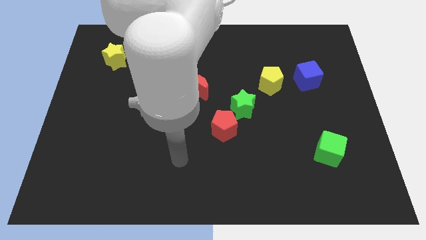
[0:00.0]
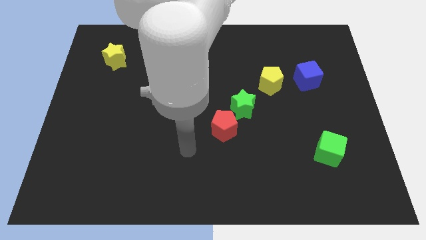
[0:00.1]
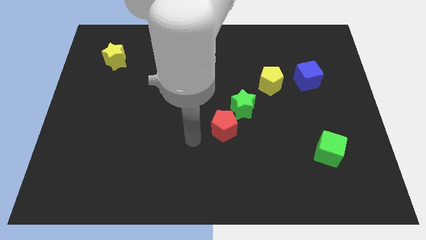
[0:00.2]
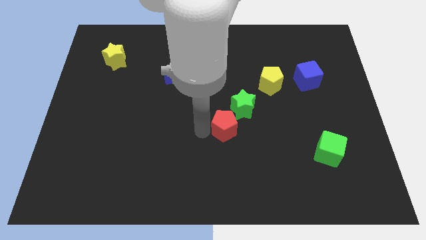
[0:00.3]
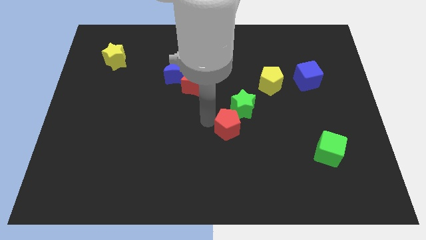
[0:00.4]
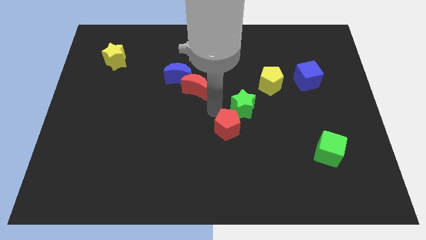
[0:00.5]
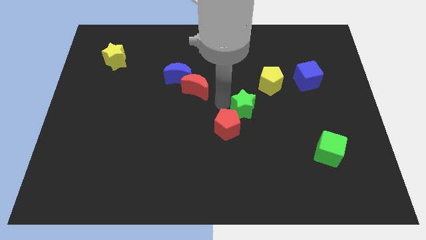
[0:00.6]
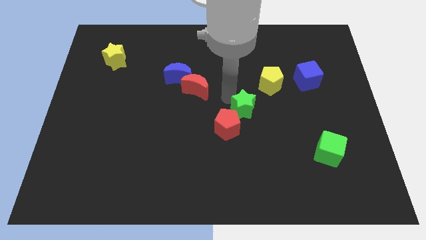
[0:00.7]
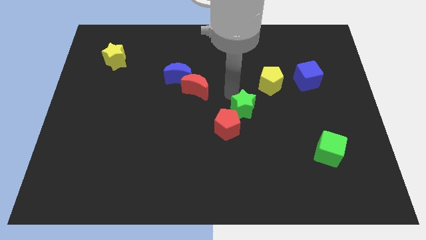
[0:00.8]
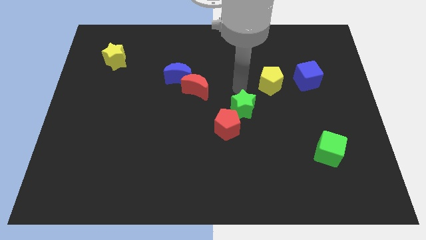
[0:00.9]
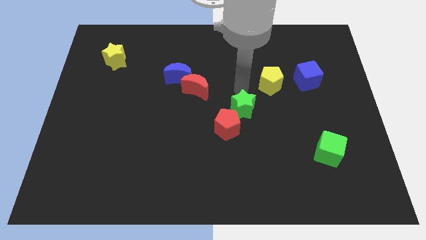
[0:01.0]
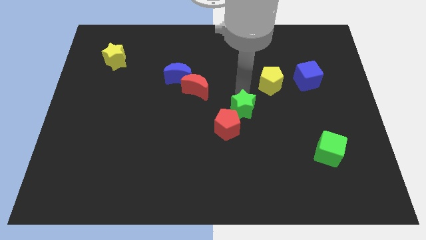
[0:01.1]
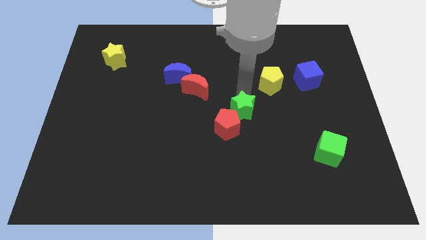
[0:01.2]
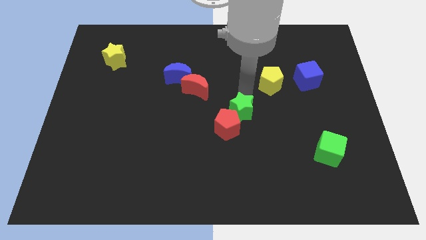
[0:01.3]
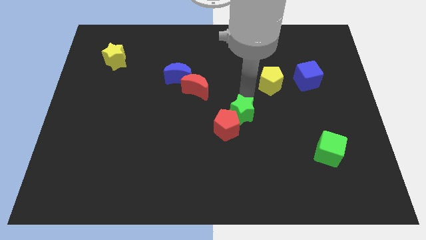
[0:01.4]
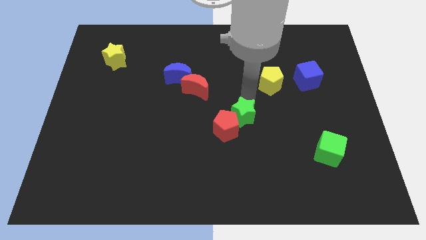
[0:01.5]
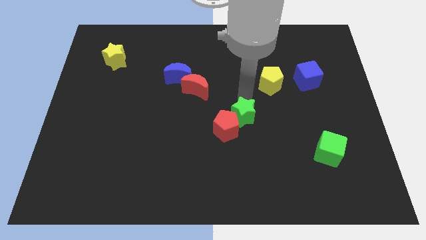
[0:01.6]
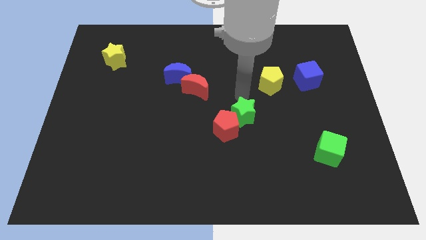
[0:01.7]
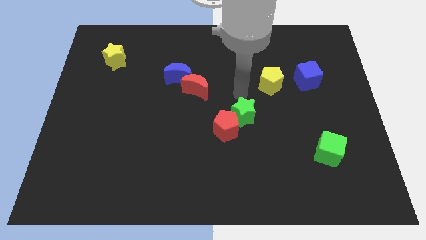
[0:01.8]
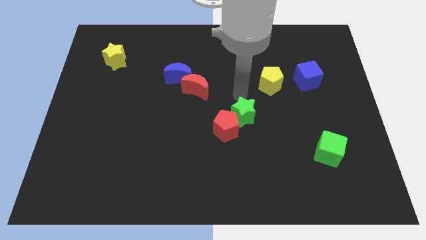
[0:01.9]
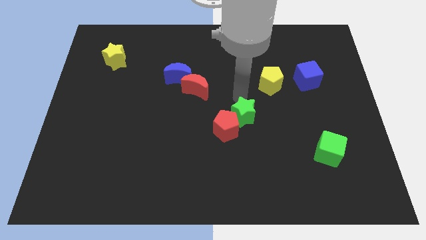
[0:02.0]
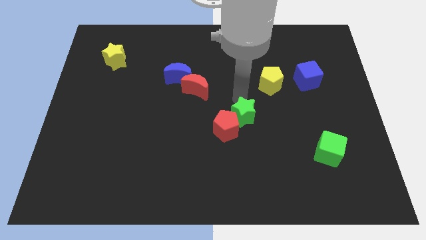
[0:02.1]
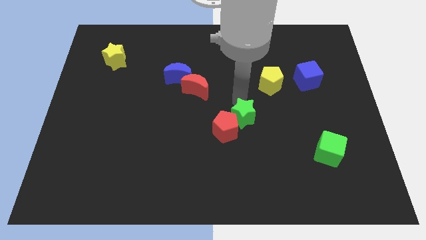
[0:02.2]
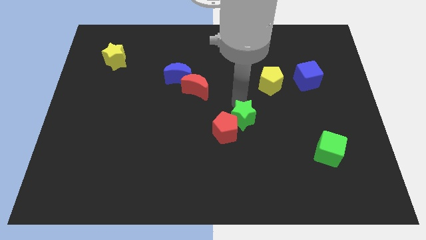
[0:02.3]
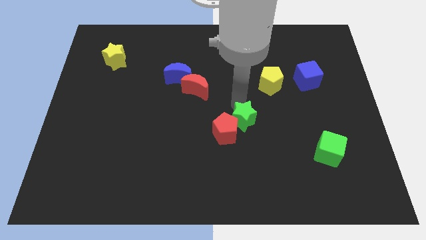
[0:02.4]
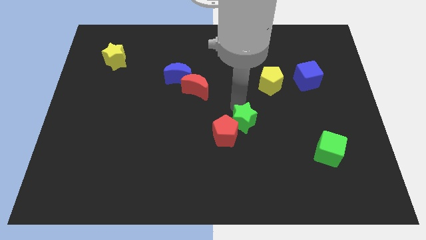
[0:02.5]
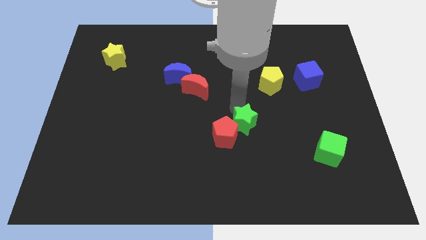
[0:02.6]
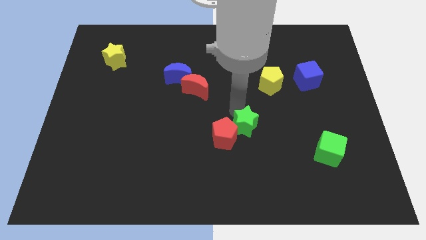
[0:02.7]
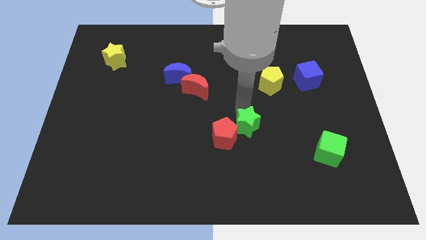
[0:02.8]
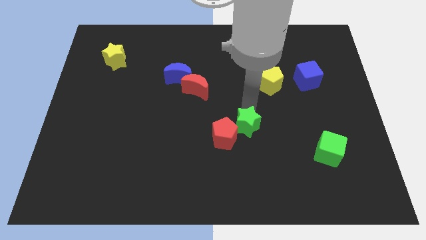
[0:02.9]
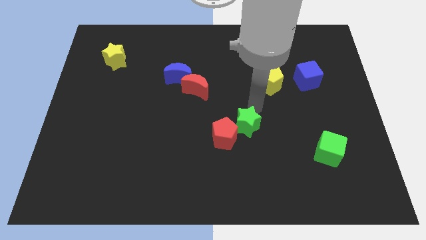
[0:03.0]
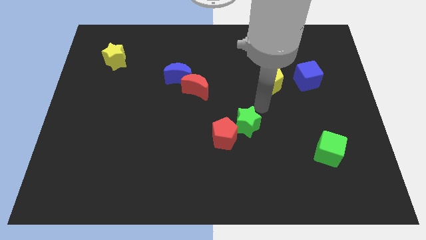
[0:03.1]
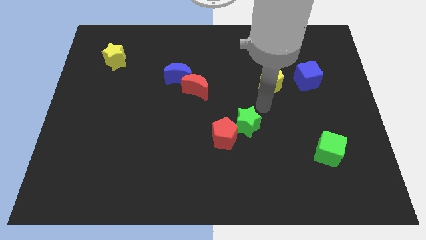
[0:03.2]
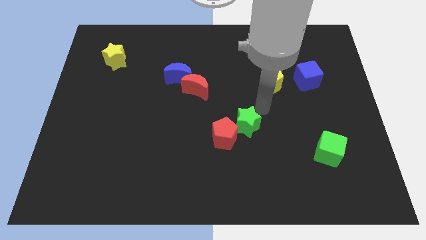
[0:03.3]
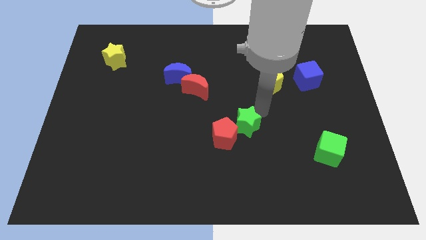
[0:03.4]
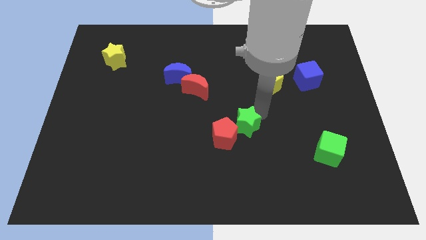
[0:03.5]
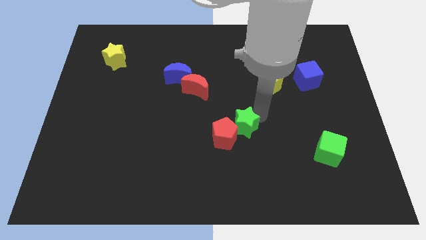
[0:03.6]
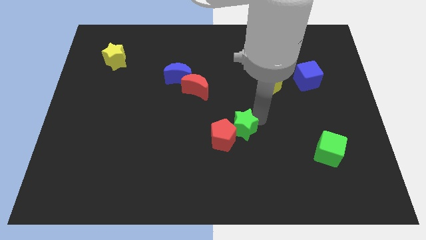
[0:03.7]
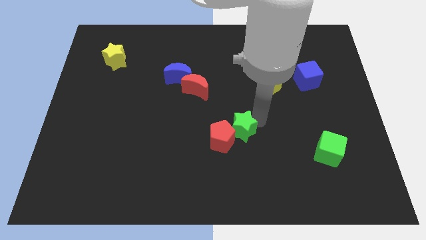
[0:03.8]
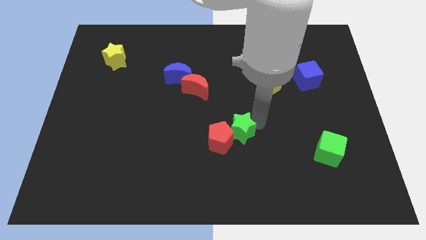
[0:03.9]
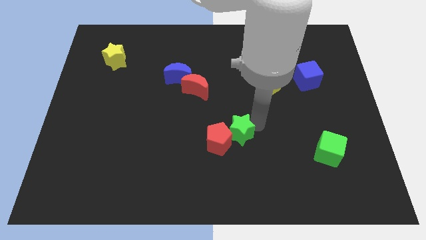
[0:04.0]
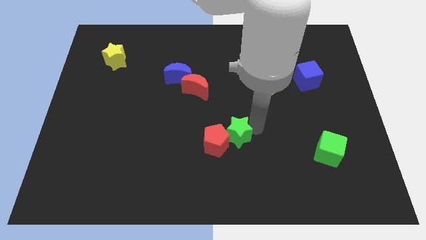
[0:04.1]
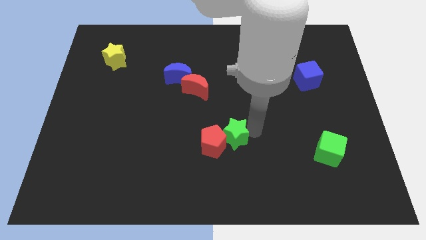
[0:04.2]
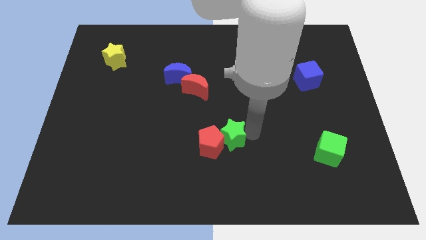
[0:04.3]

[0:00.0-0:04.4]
slightly slide the green star diagonally downwards and to the left

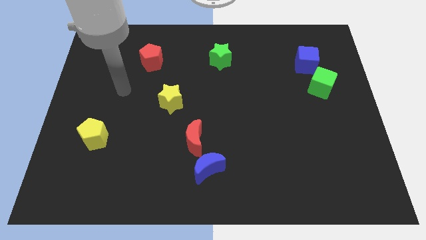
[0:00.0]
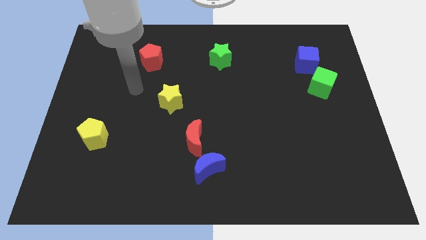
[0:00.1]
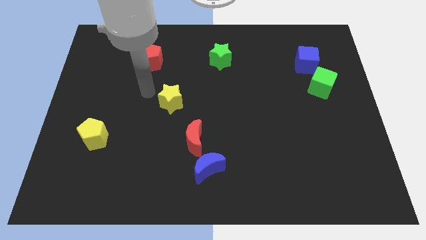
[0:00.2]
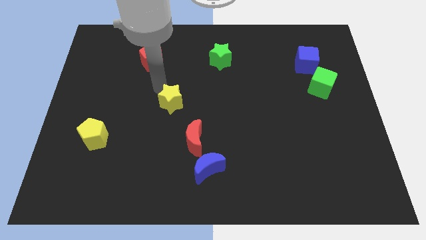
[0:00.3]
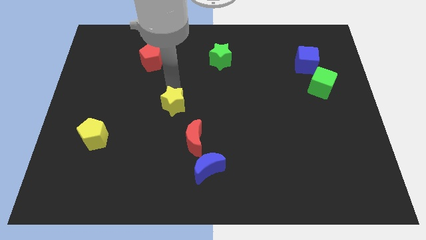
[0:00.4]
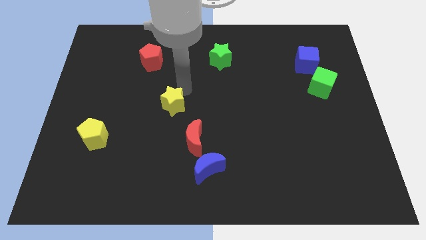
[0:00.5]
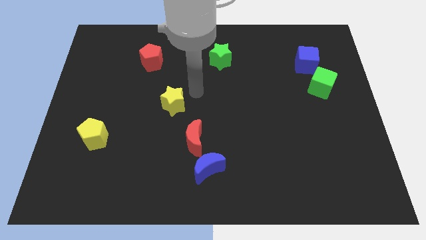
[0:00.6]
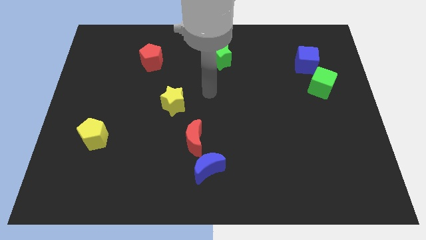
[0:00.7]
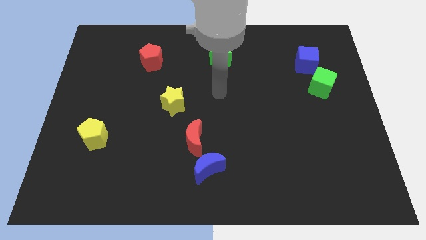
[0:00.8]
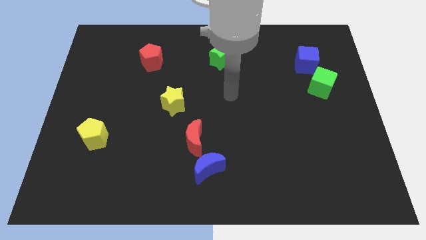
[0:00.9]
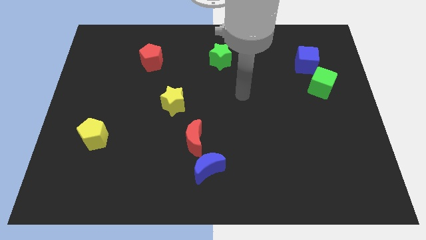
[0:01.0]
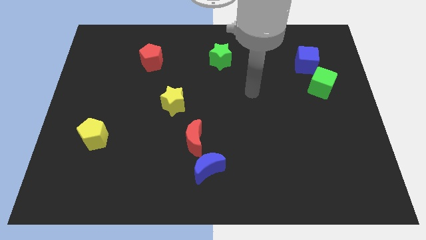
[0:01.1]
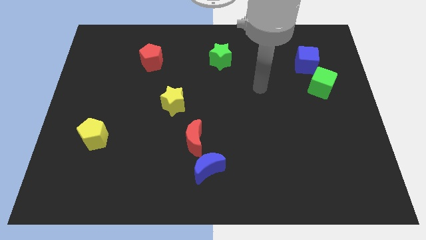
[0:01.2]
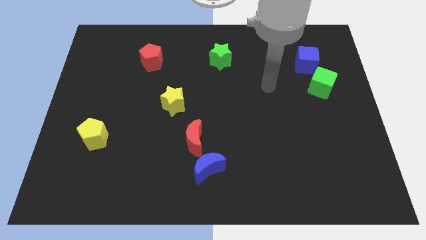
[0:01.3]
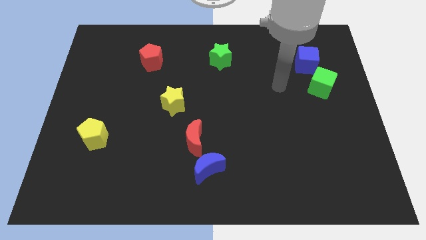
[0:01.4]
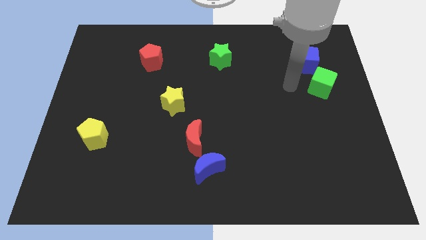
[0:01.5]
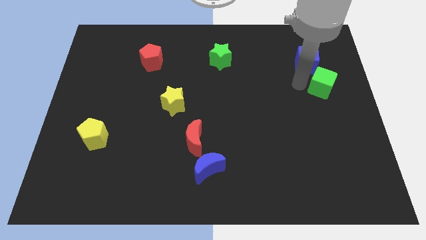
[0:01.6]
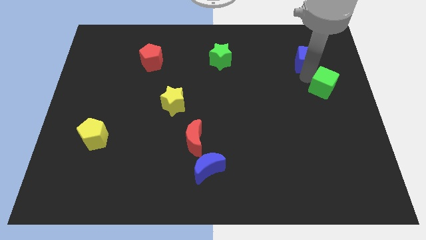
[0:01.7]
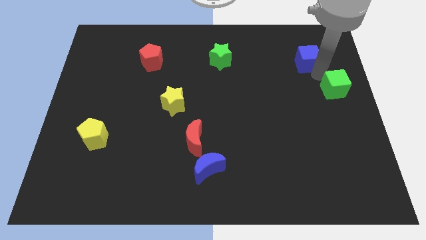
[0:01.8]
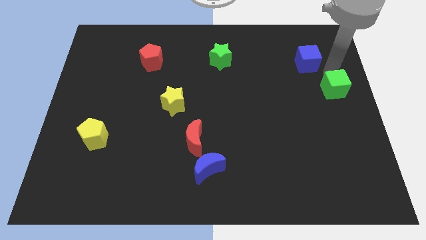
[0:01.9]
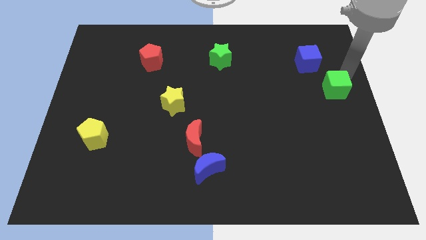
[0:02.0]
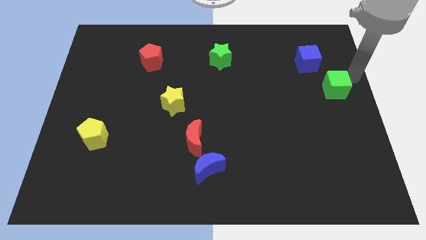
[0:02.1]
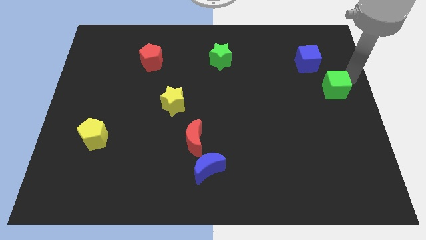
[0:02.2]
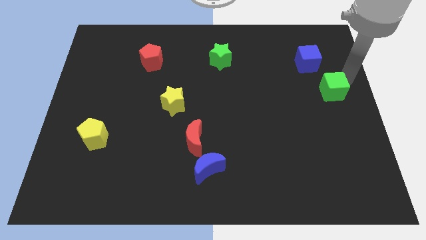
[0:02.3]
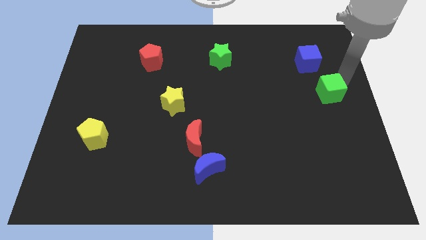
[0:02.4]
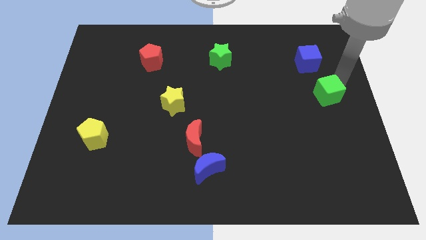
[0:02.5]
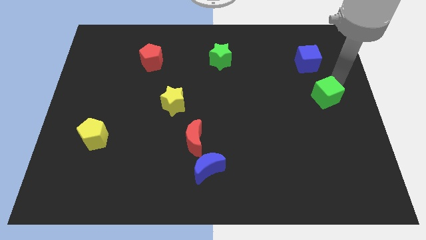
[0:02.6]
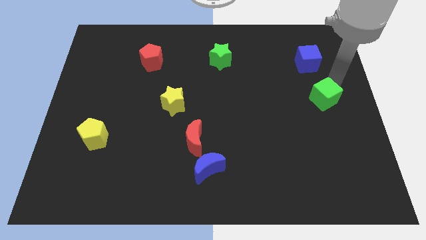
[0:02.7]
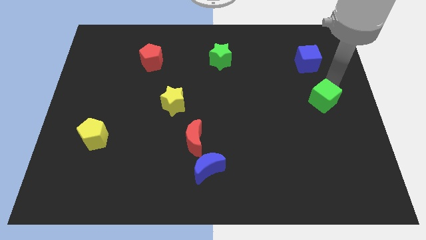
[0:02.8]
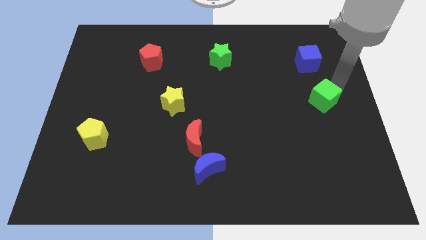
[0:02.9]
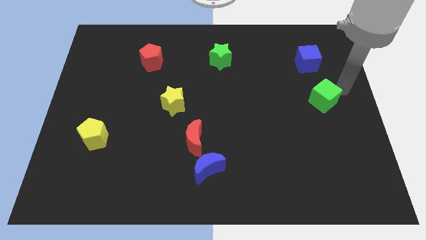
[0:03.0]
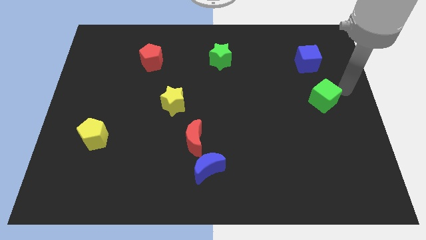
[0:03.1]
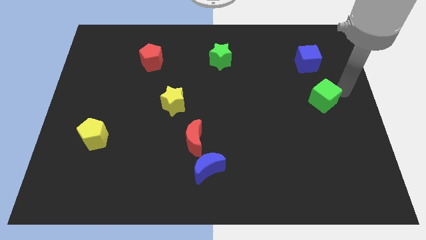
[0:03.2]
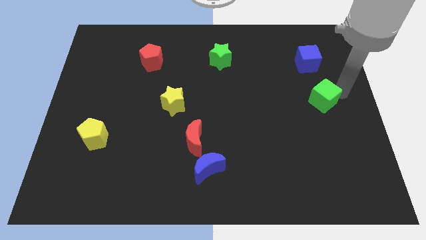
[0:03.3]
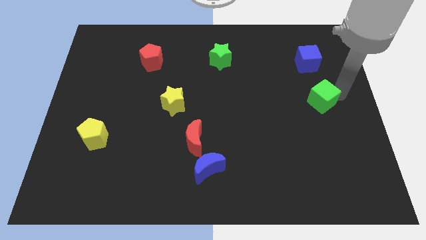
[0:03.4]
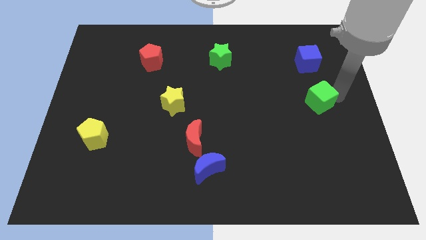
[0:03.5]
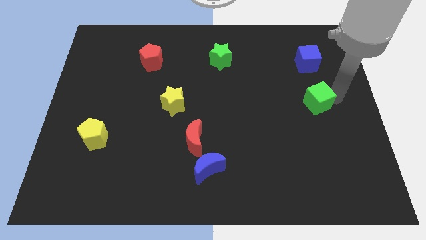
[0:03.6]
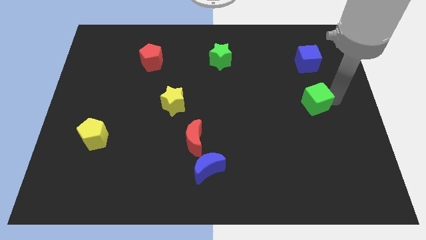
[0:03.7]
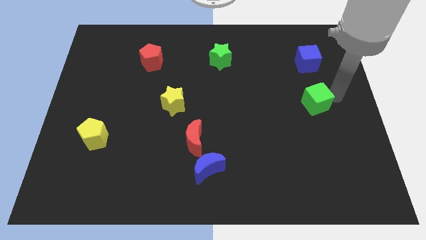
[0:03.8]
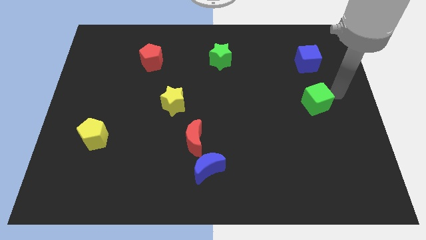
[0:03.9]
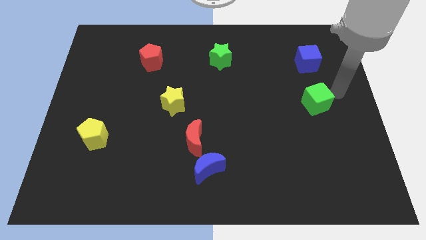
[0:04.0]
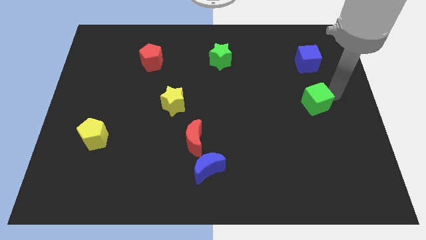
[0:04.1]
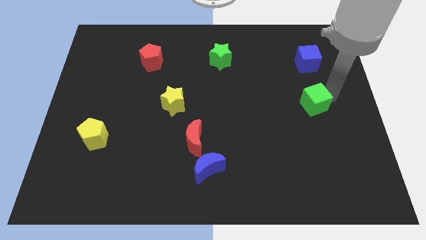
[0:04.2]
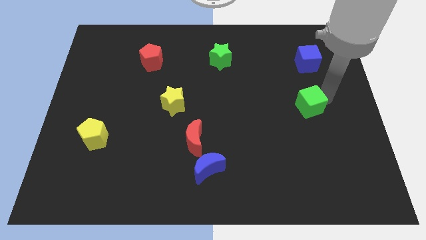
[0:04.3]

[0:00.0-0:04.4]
slightly slide the green cube downwards and left diagonally
